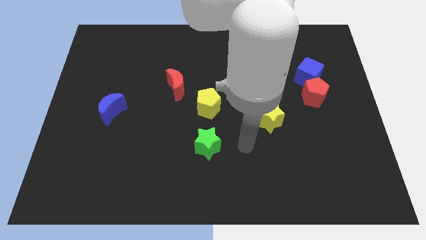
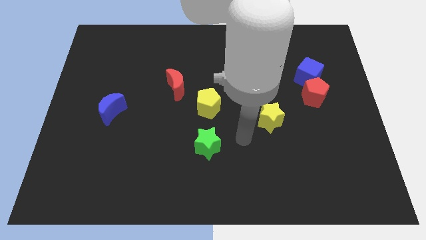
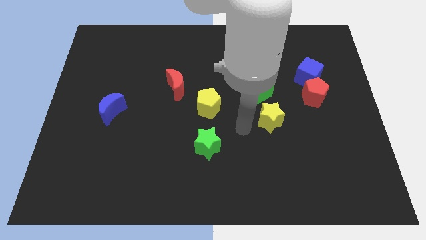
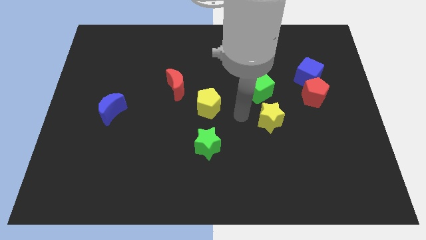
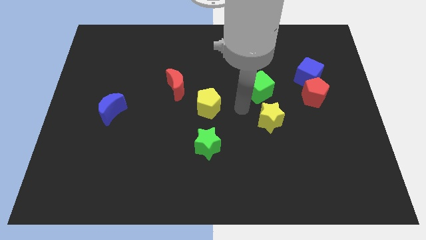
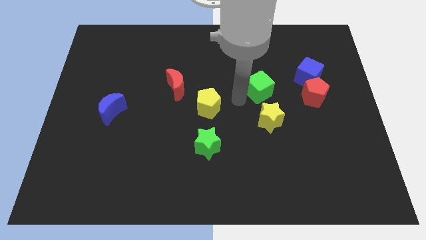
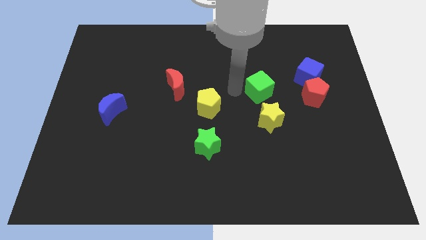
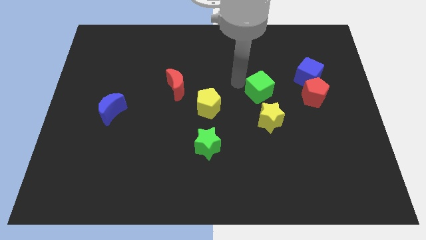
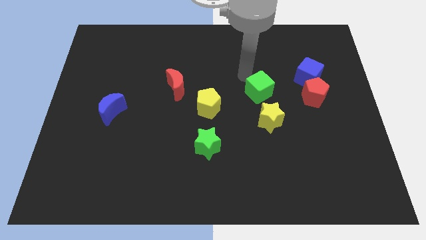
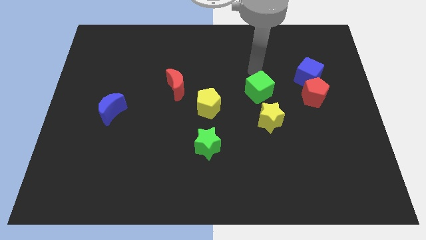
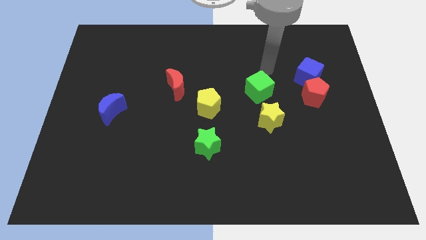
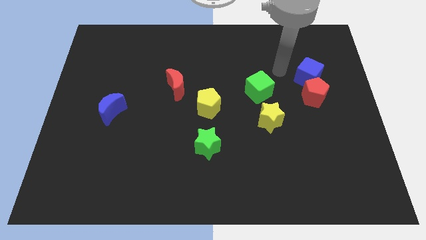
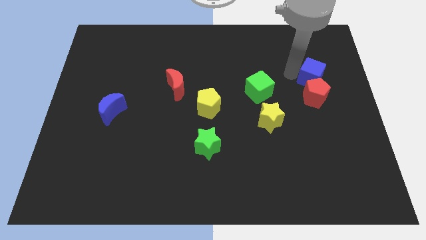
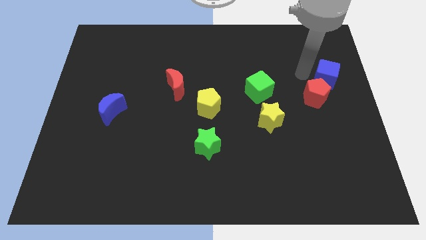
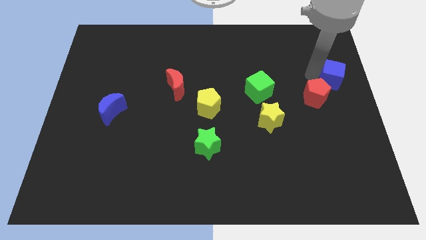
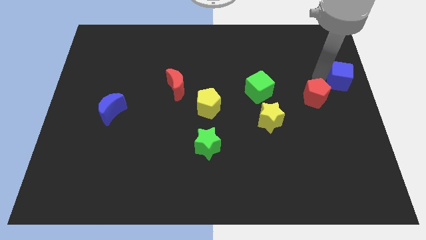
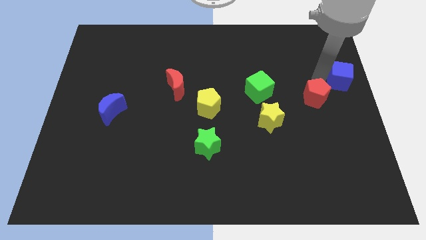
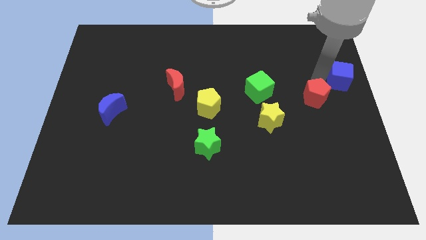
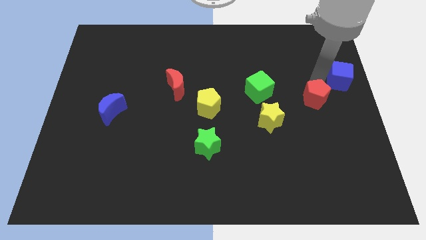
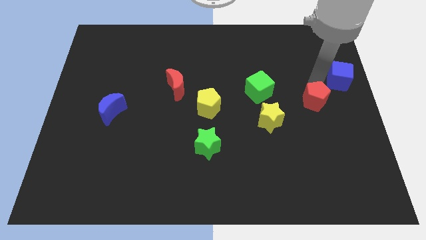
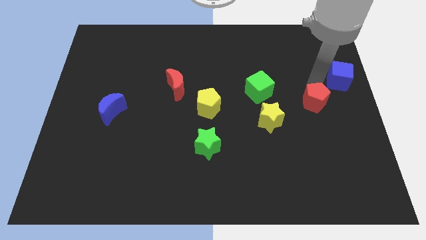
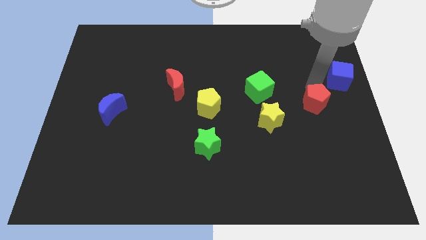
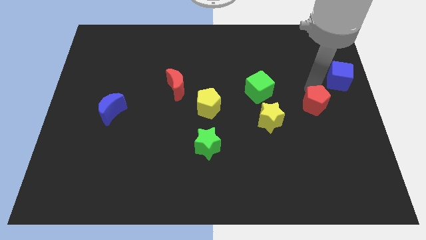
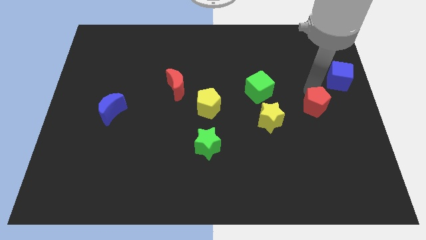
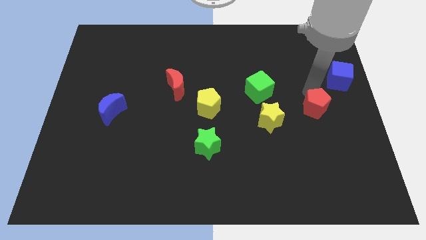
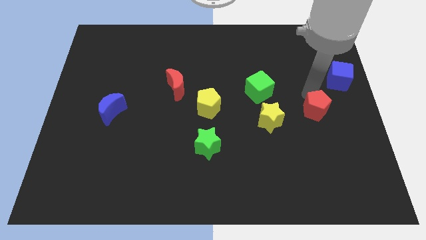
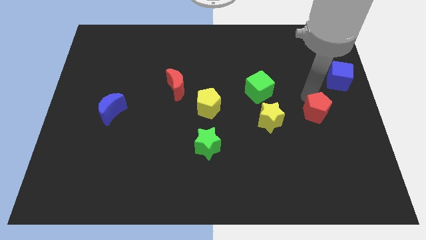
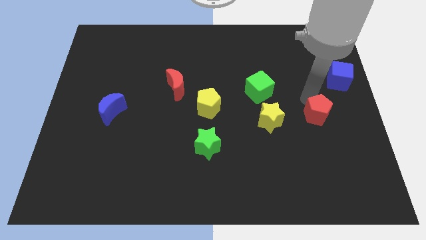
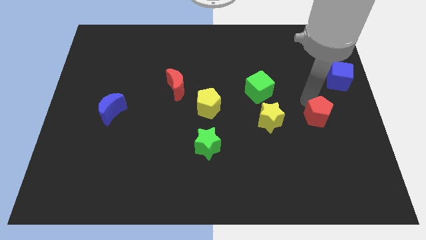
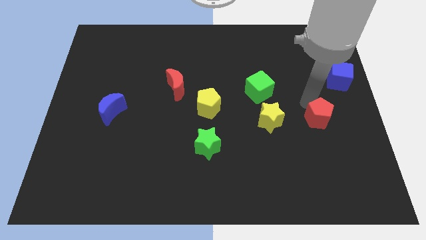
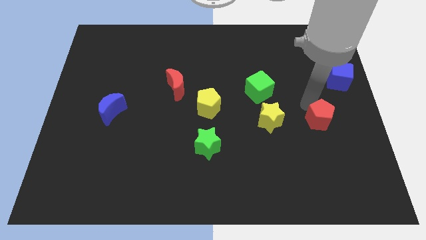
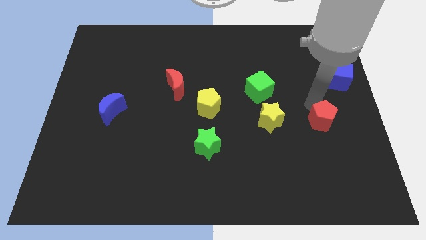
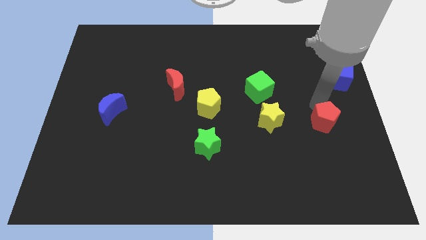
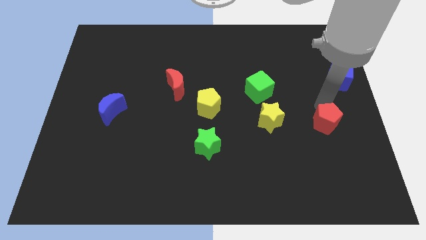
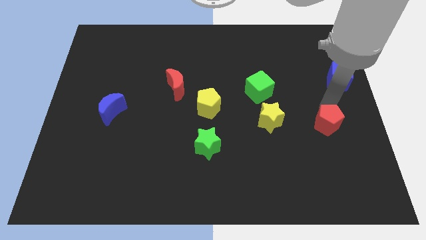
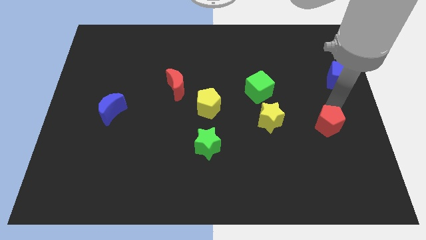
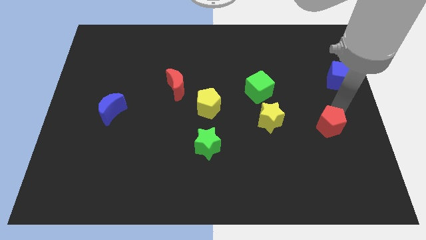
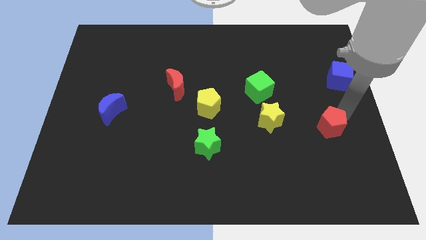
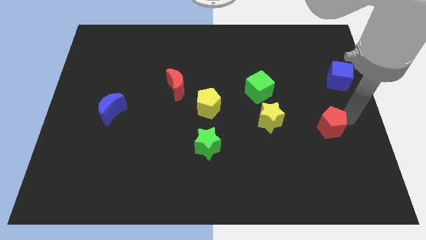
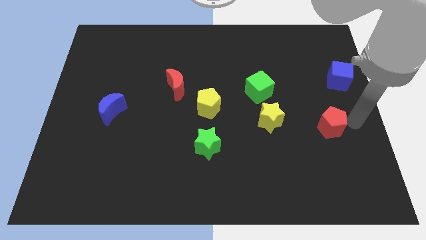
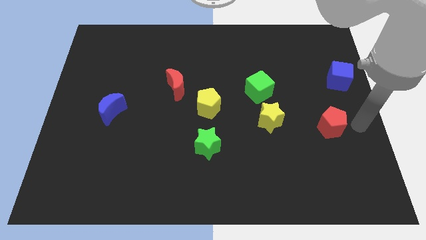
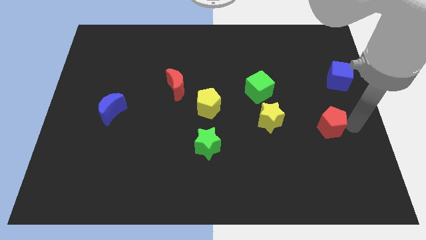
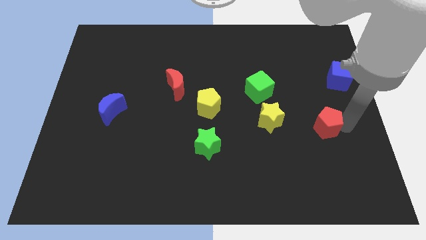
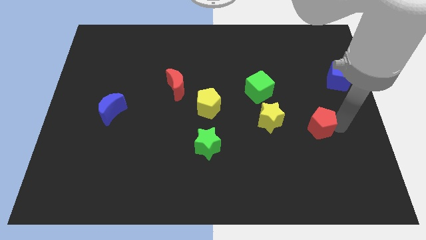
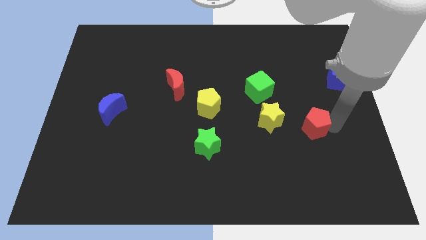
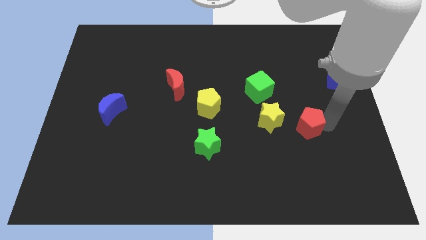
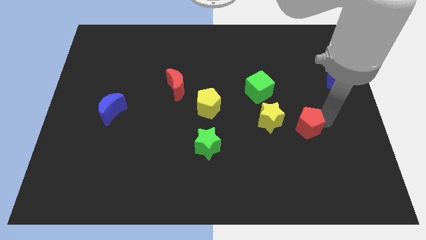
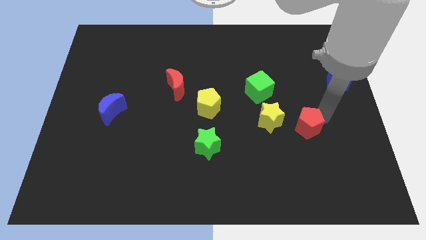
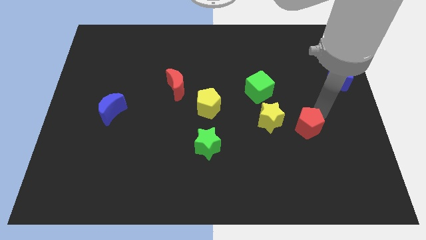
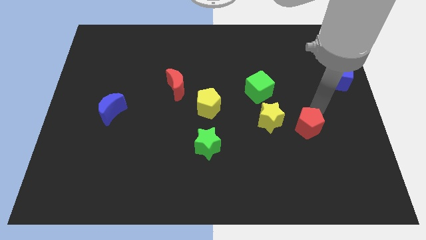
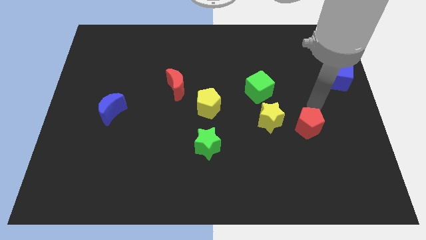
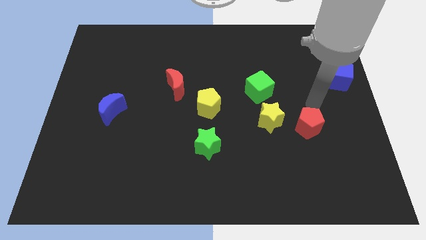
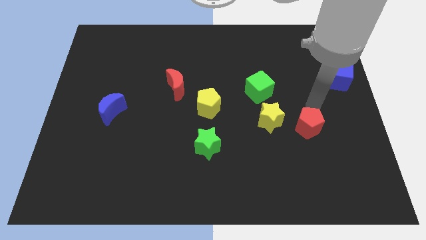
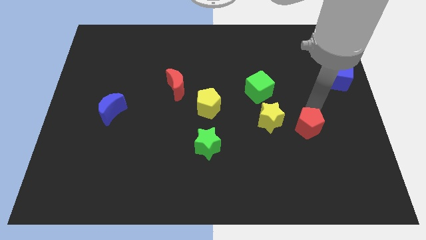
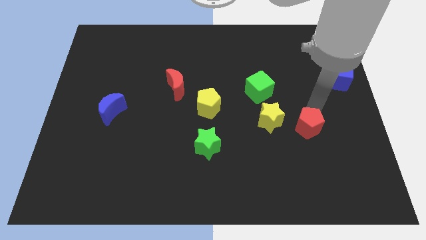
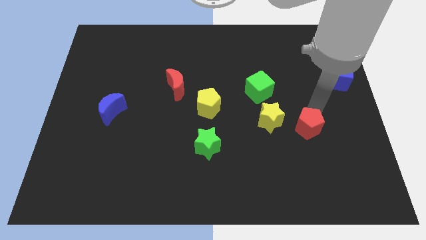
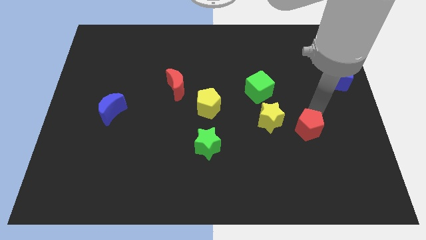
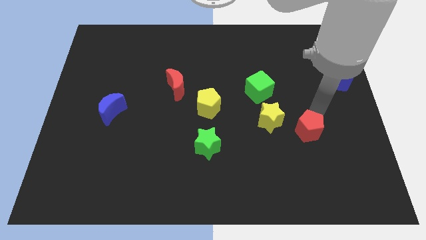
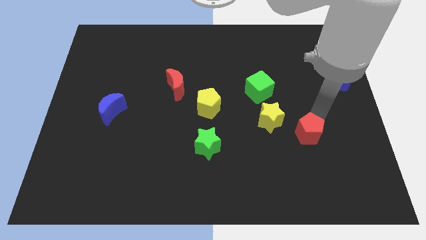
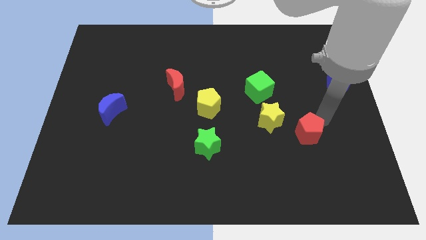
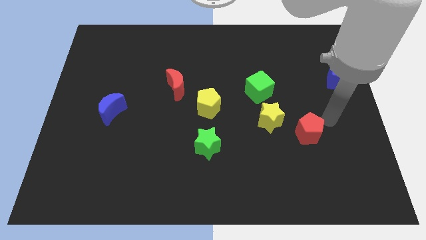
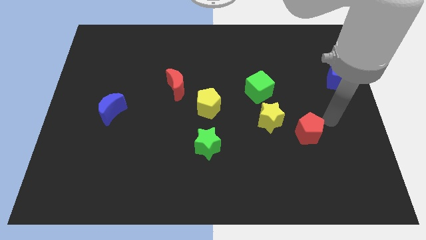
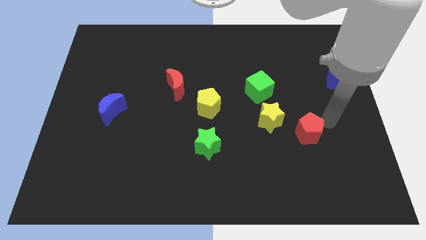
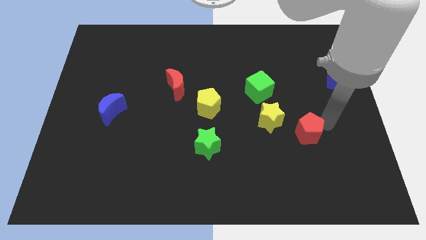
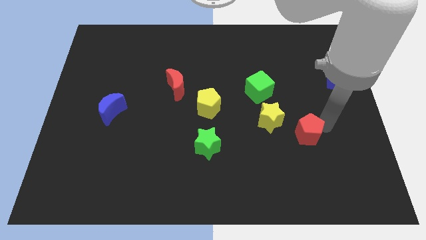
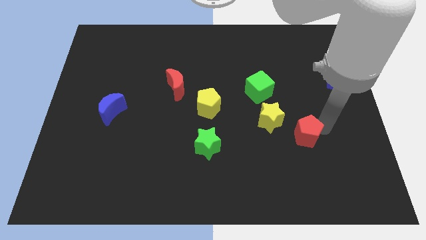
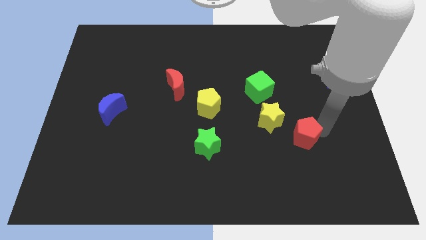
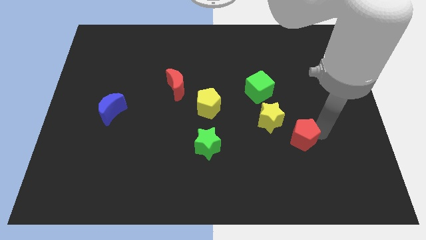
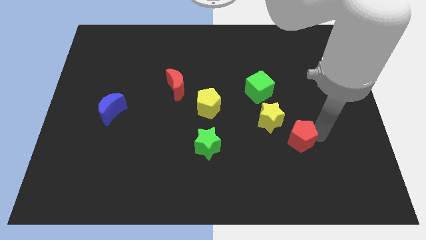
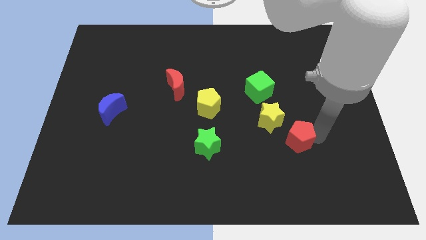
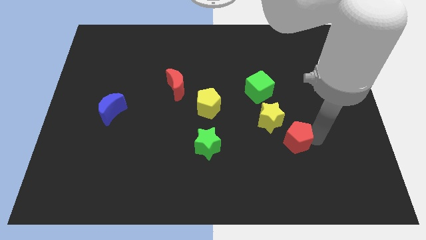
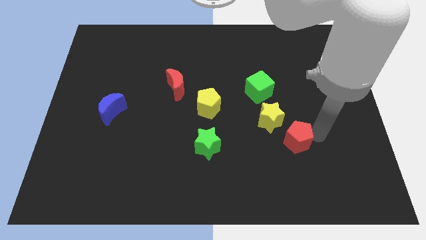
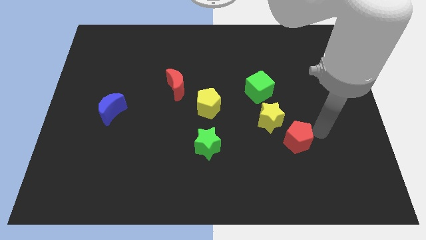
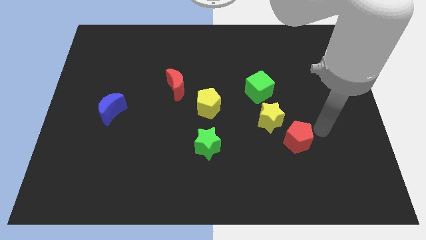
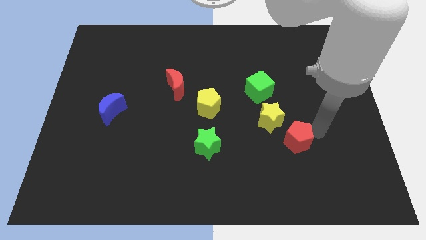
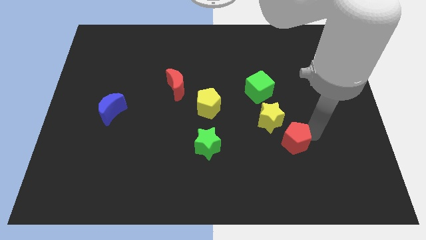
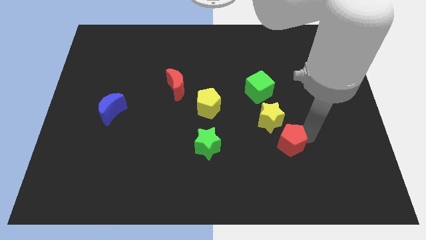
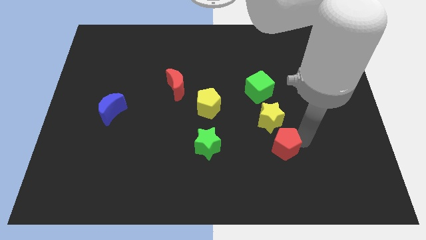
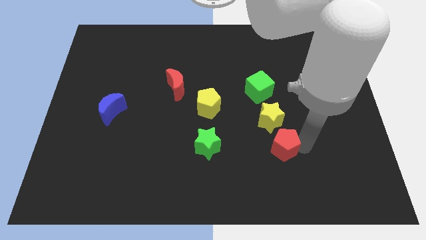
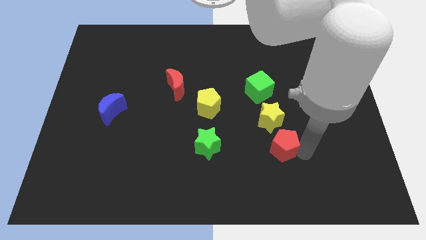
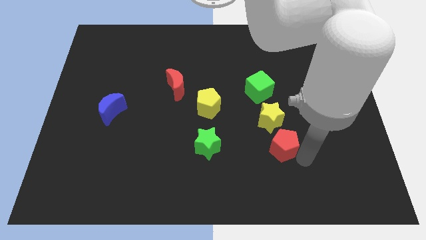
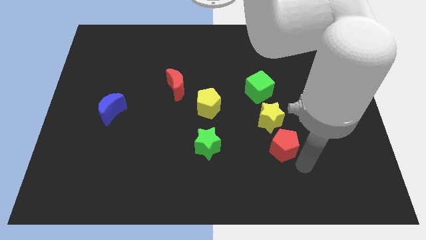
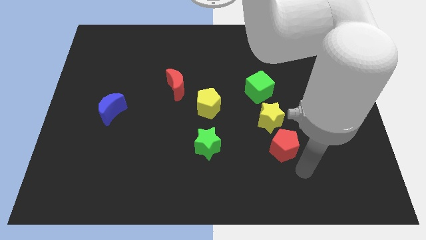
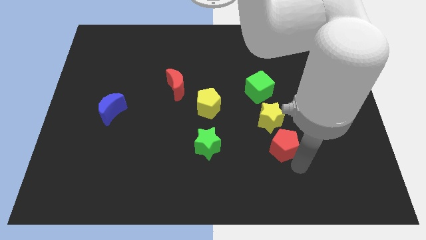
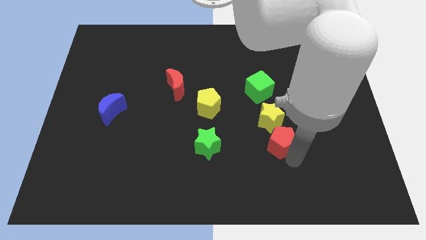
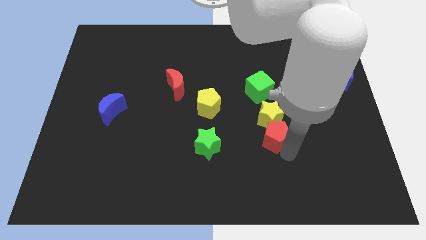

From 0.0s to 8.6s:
put the red pentagon to the bottom of the green cube
